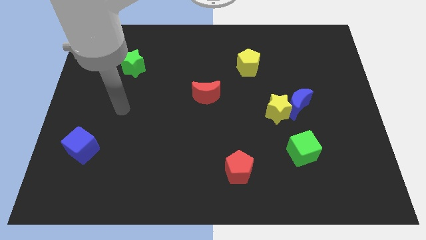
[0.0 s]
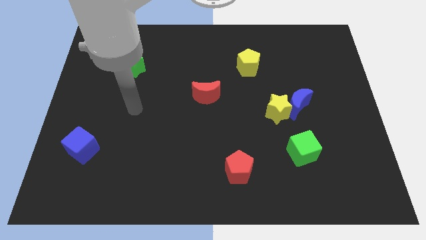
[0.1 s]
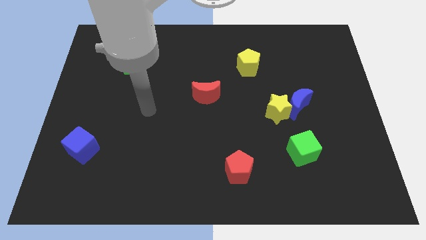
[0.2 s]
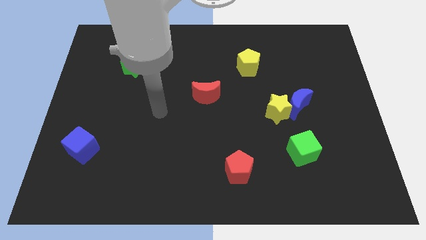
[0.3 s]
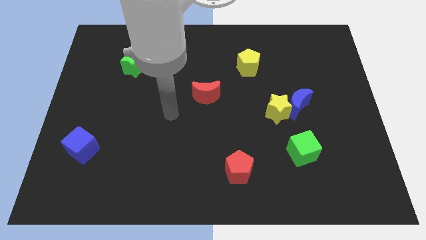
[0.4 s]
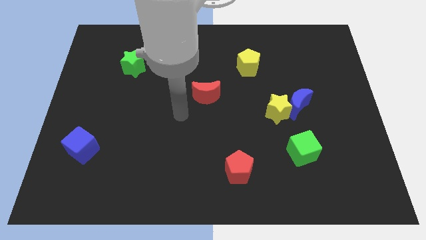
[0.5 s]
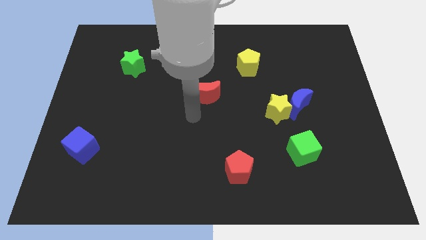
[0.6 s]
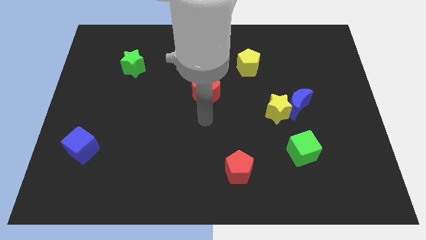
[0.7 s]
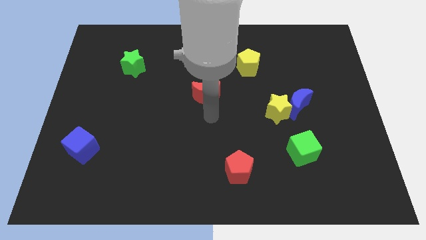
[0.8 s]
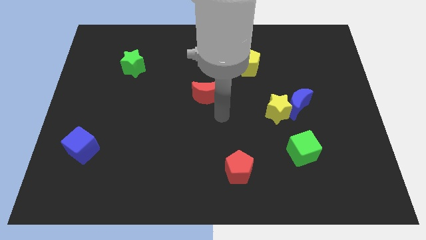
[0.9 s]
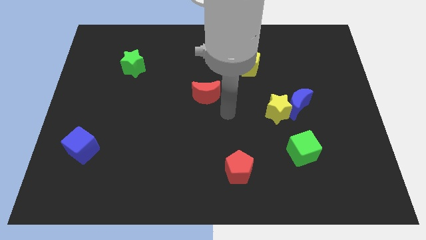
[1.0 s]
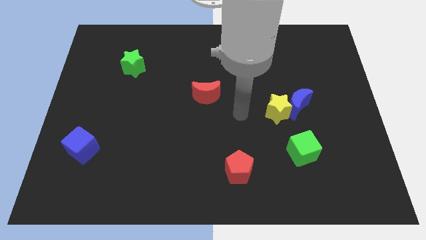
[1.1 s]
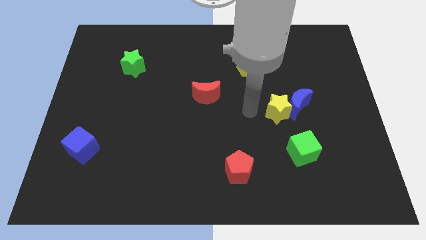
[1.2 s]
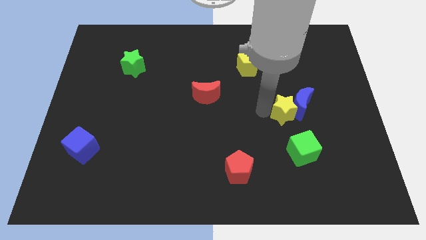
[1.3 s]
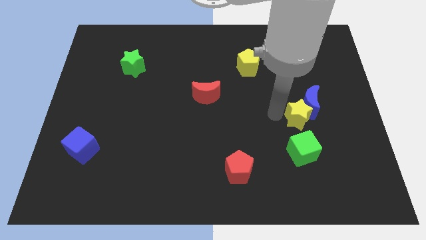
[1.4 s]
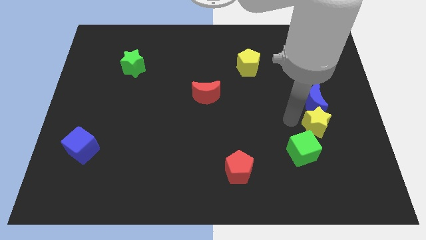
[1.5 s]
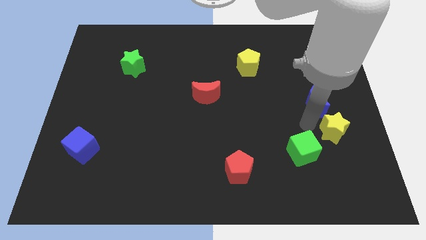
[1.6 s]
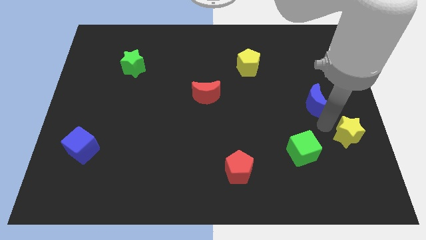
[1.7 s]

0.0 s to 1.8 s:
move the blue moon away from the yellow star

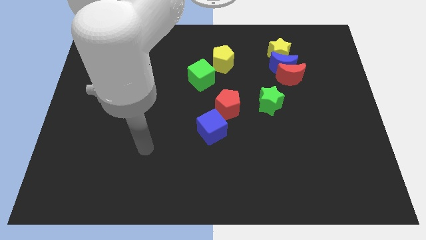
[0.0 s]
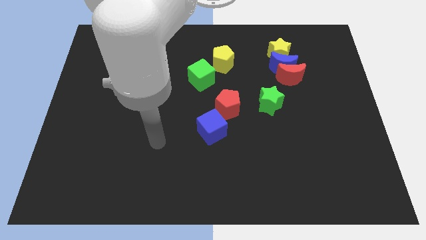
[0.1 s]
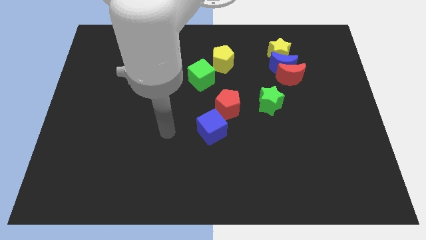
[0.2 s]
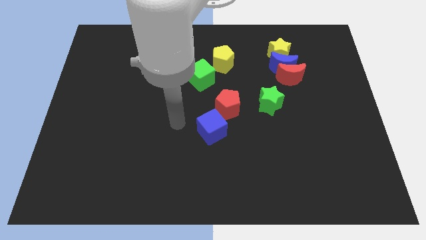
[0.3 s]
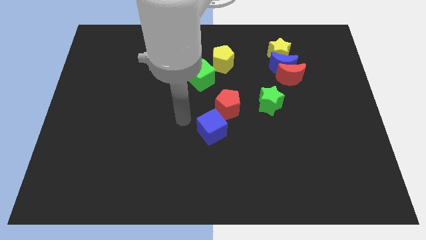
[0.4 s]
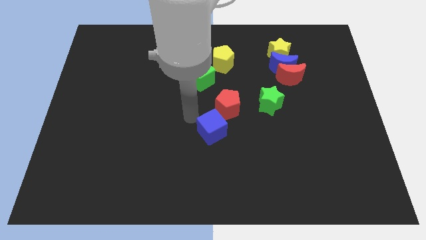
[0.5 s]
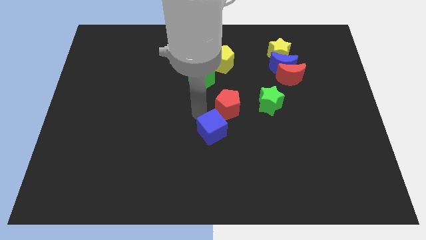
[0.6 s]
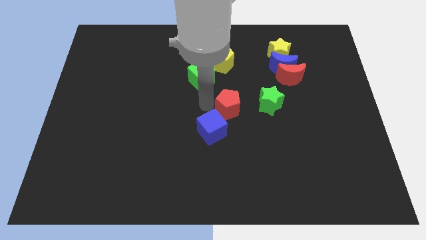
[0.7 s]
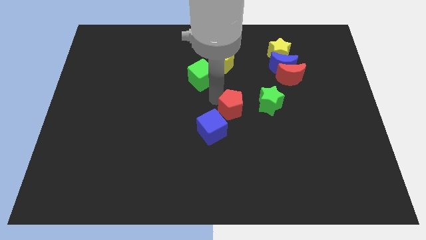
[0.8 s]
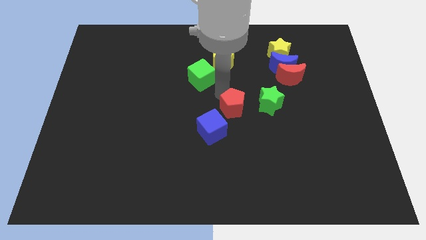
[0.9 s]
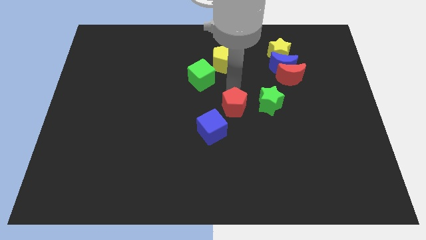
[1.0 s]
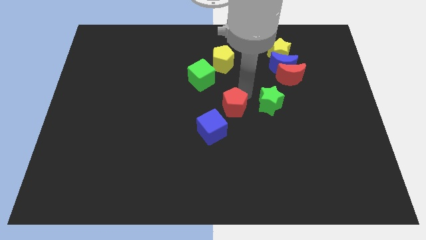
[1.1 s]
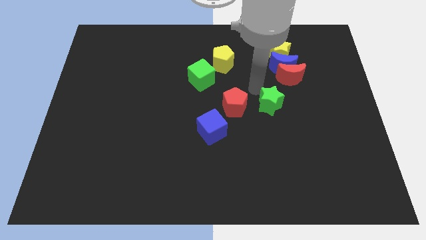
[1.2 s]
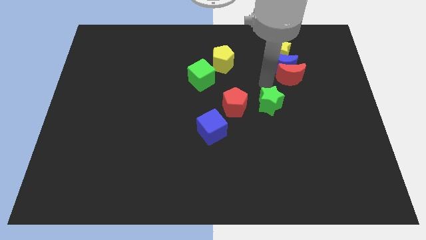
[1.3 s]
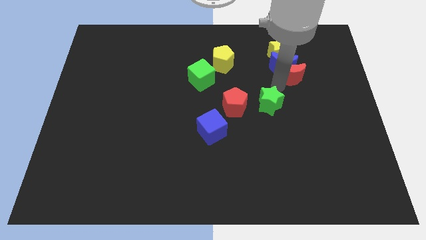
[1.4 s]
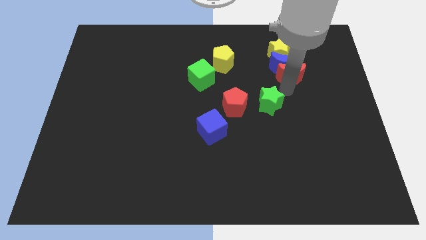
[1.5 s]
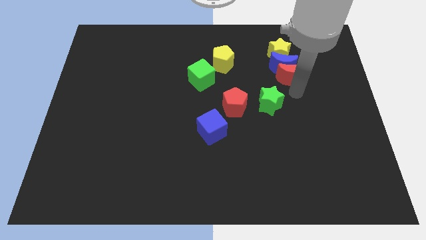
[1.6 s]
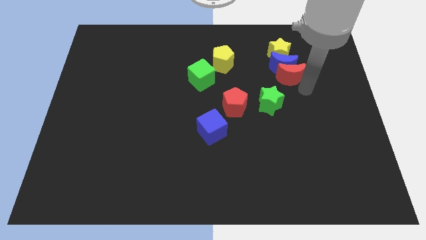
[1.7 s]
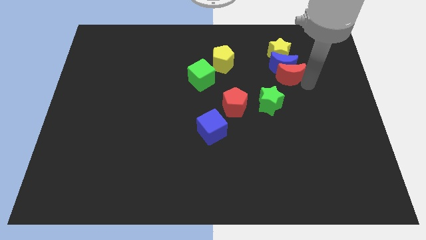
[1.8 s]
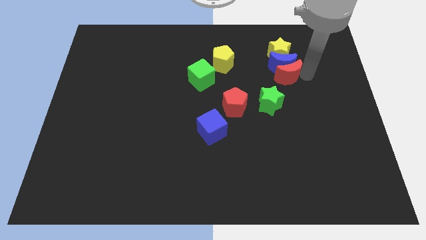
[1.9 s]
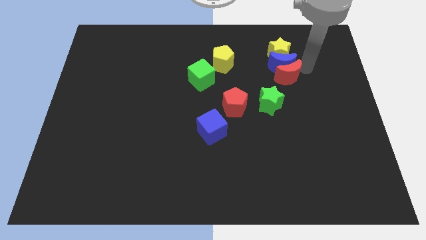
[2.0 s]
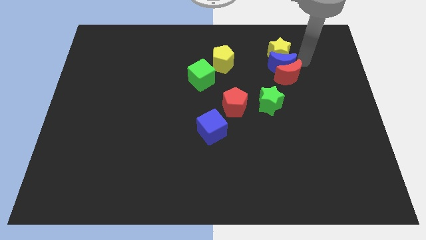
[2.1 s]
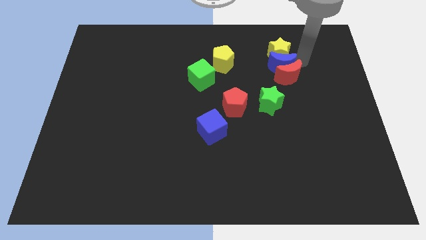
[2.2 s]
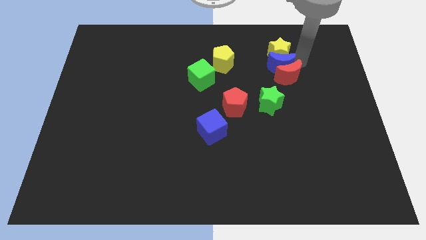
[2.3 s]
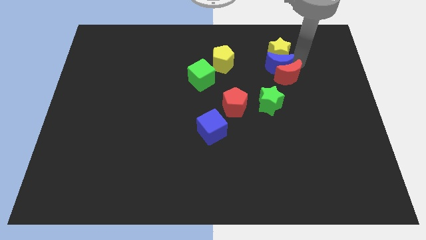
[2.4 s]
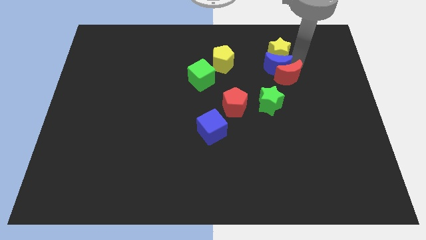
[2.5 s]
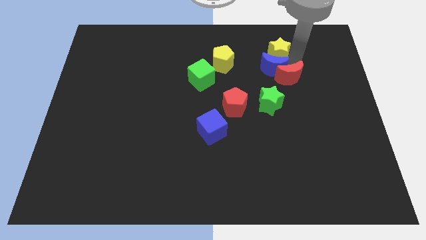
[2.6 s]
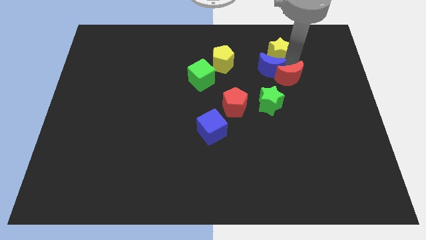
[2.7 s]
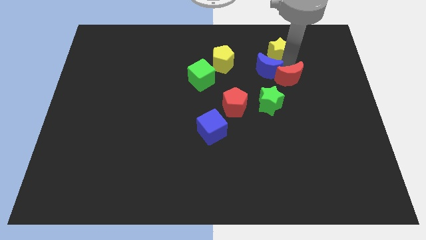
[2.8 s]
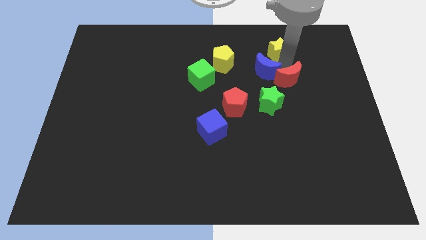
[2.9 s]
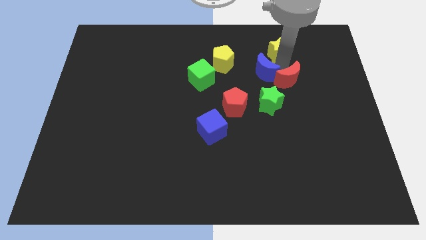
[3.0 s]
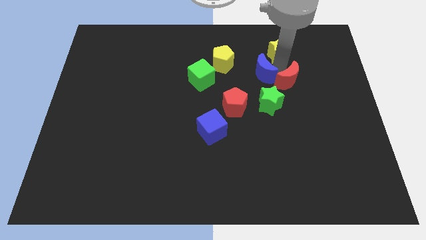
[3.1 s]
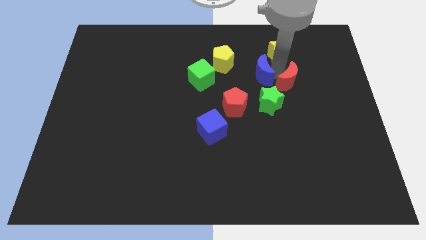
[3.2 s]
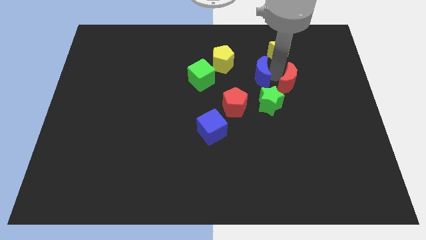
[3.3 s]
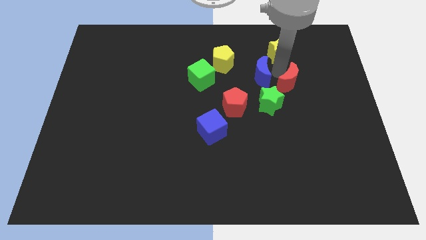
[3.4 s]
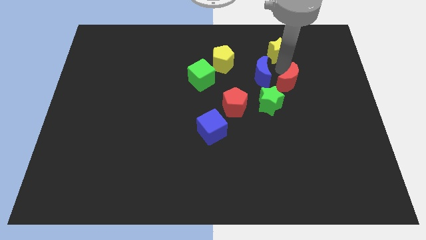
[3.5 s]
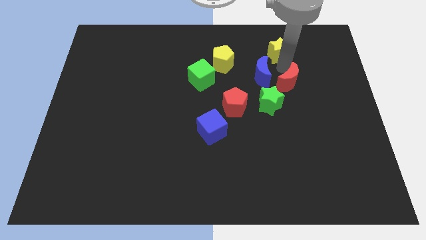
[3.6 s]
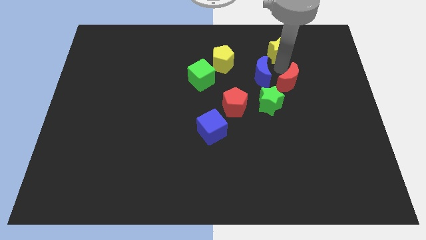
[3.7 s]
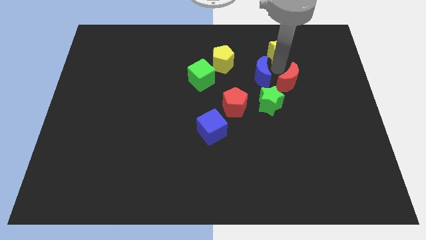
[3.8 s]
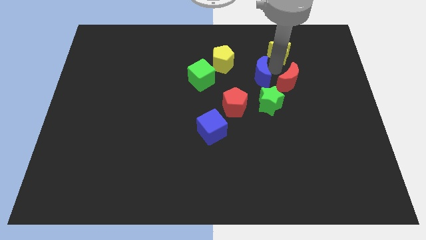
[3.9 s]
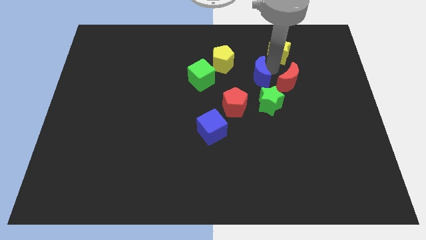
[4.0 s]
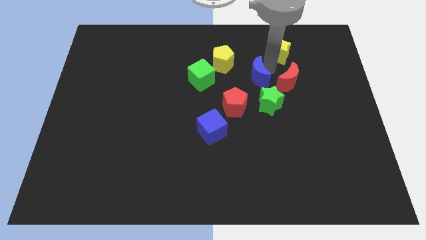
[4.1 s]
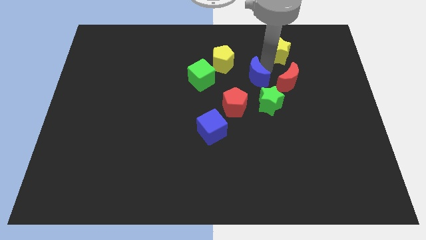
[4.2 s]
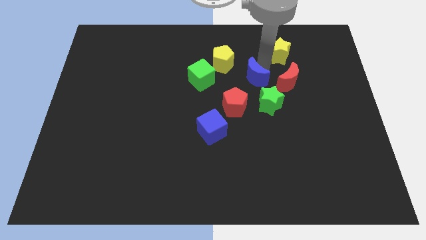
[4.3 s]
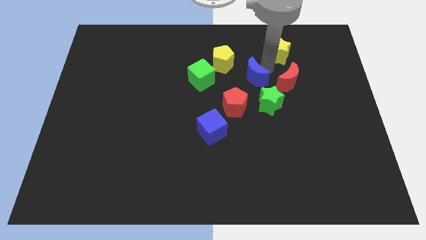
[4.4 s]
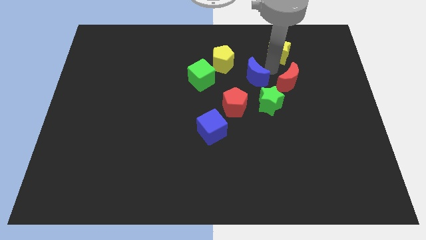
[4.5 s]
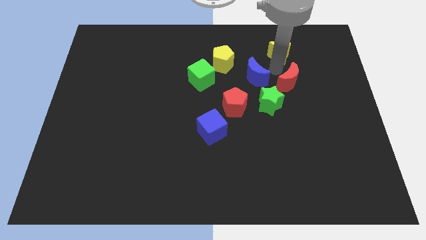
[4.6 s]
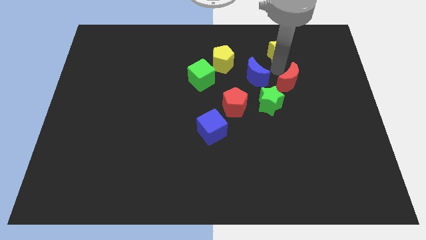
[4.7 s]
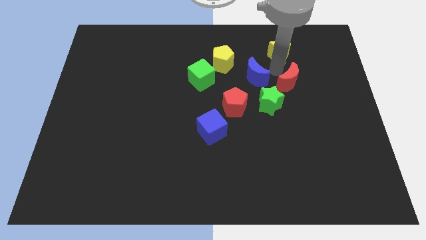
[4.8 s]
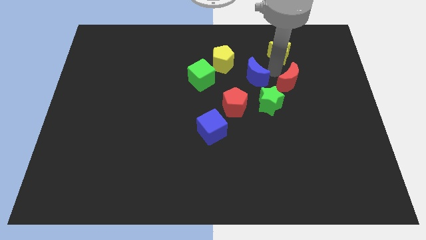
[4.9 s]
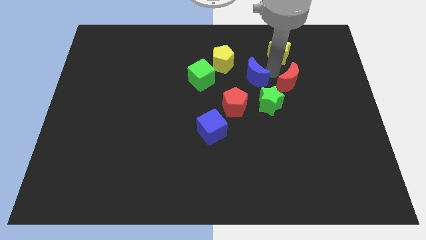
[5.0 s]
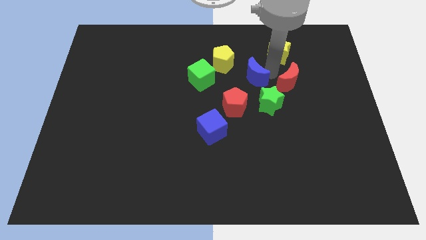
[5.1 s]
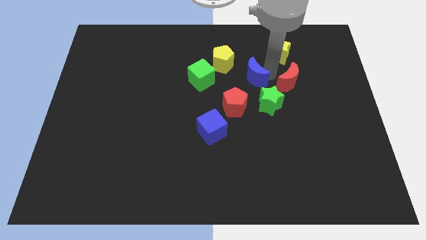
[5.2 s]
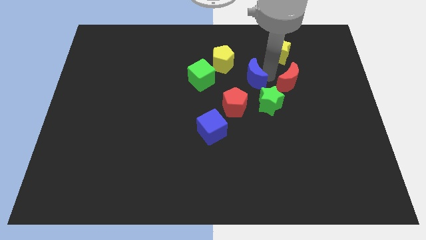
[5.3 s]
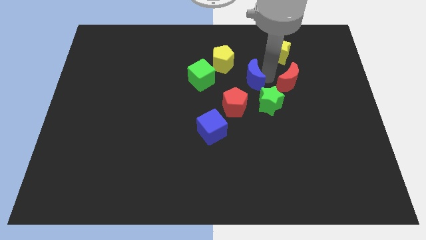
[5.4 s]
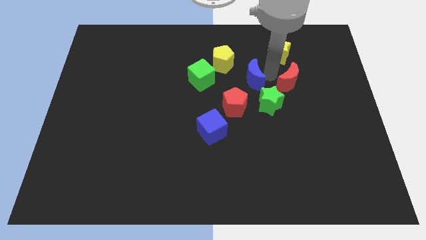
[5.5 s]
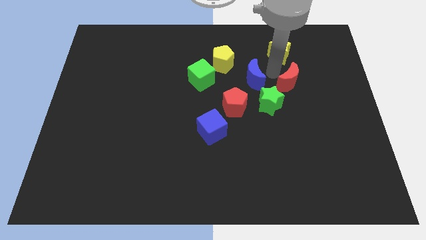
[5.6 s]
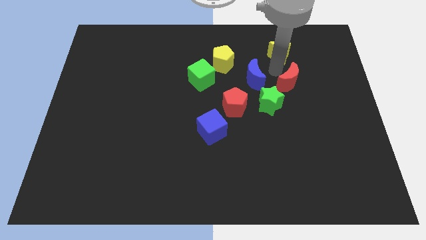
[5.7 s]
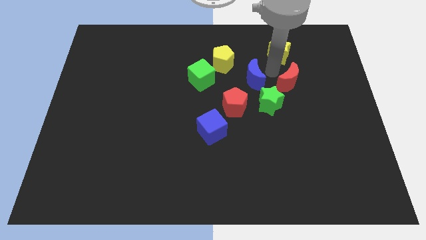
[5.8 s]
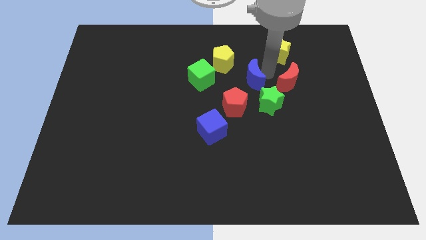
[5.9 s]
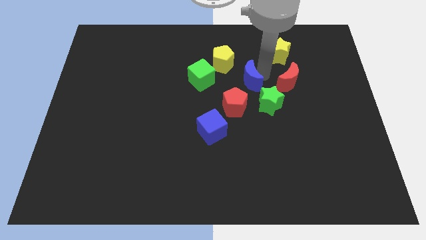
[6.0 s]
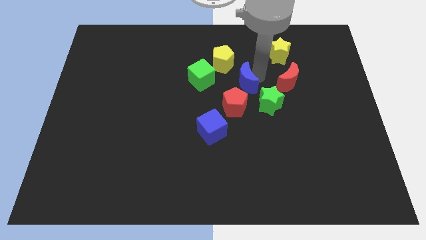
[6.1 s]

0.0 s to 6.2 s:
pull the blue moon apart from the red moon and yellow star

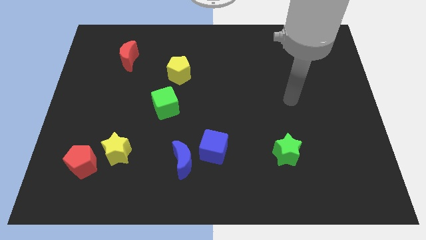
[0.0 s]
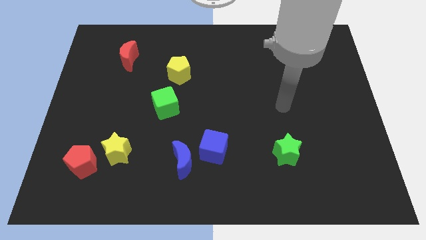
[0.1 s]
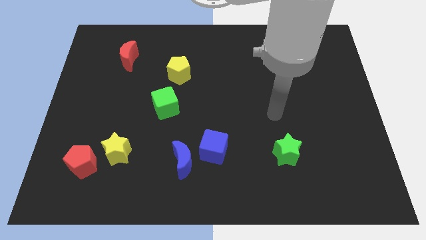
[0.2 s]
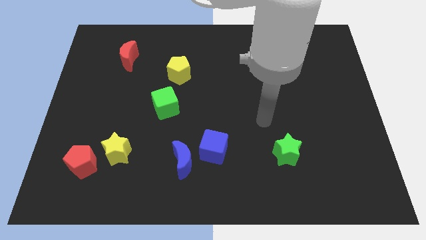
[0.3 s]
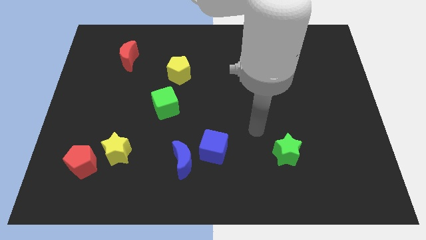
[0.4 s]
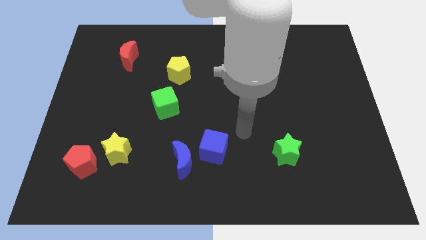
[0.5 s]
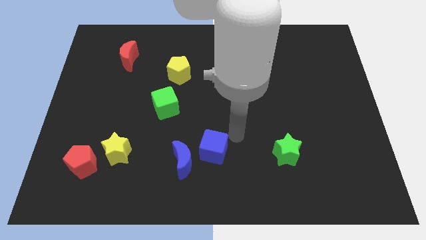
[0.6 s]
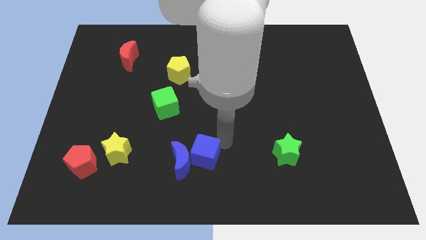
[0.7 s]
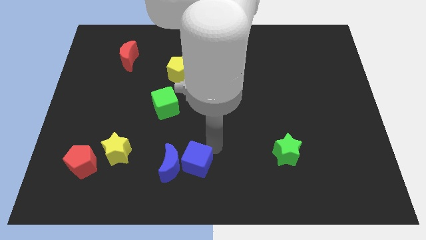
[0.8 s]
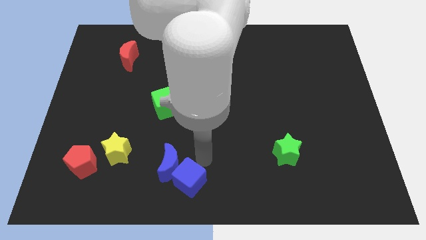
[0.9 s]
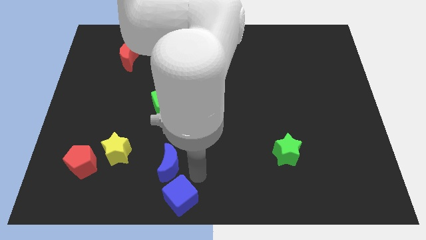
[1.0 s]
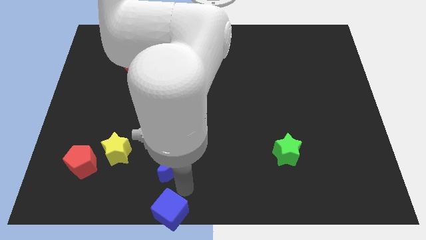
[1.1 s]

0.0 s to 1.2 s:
move the blue moon away from the blue cube

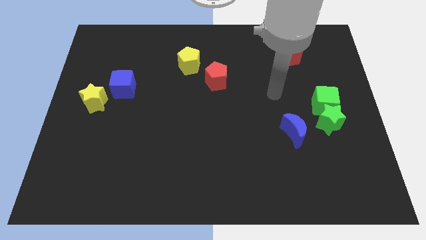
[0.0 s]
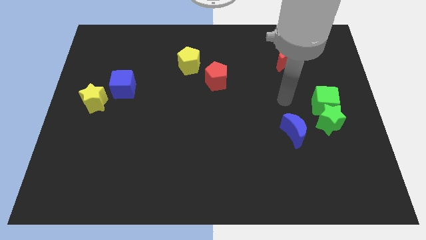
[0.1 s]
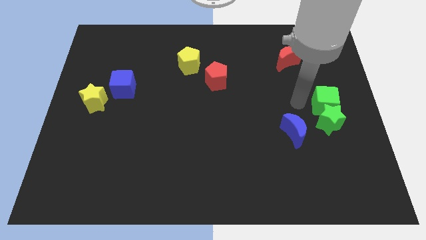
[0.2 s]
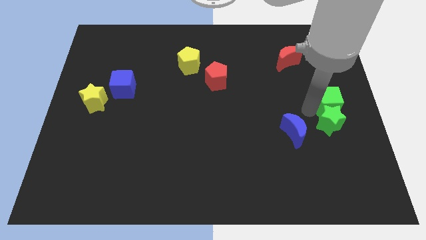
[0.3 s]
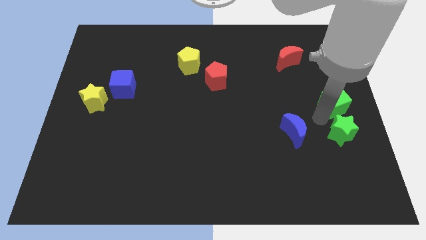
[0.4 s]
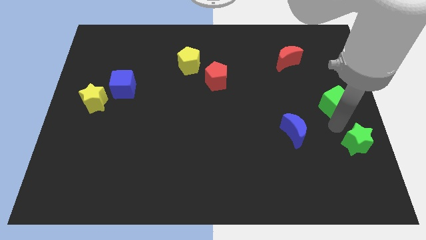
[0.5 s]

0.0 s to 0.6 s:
separate the green cube from the green star
